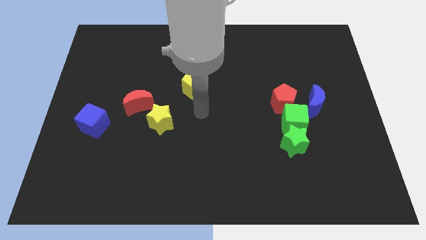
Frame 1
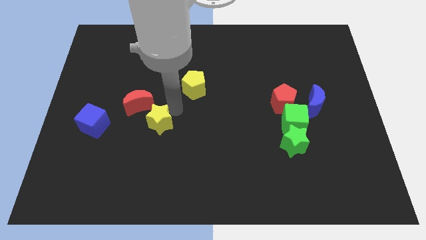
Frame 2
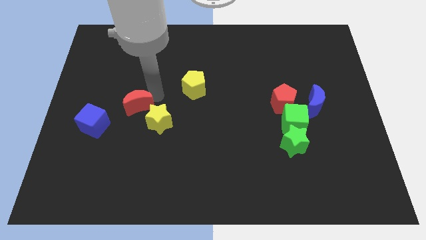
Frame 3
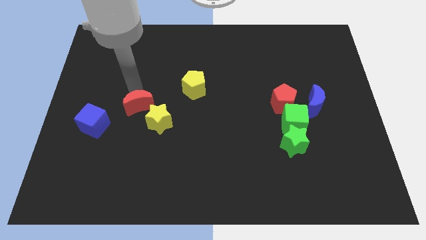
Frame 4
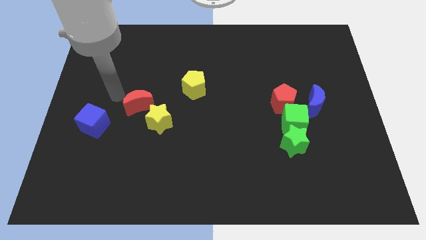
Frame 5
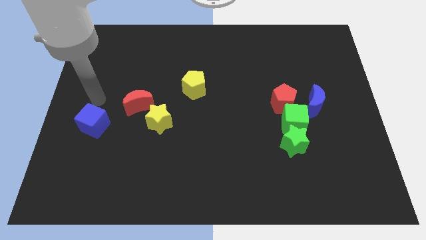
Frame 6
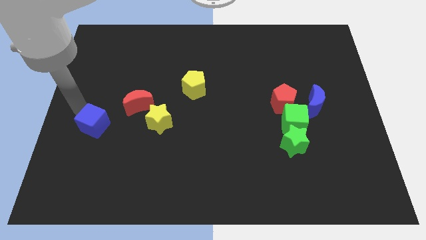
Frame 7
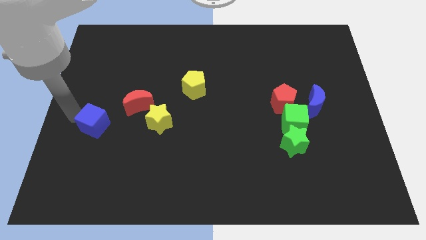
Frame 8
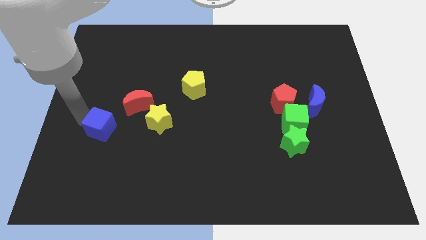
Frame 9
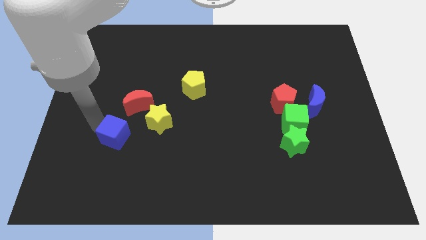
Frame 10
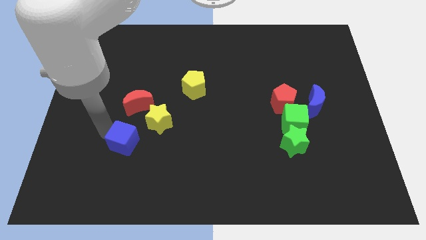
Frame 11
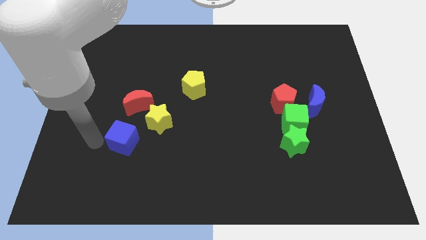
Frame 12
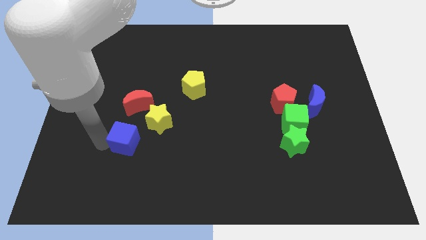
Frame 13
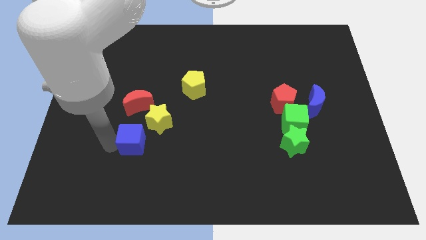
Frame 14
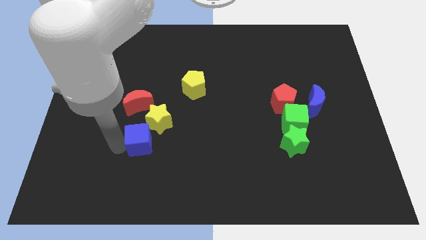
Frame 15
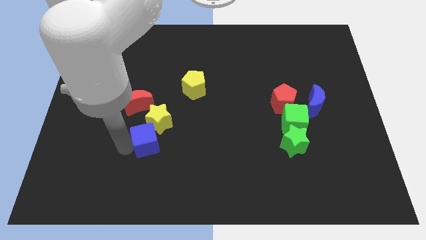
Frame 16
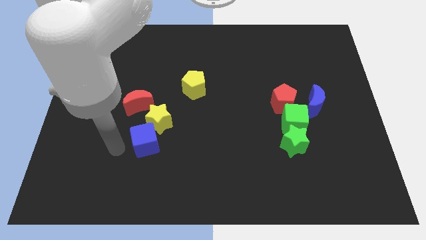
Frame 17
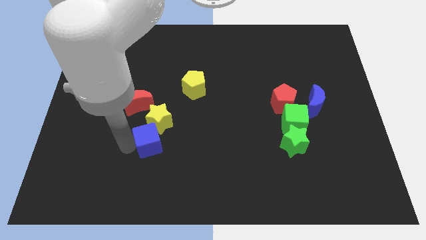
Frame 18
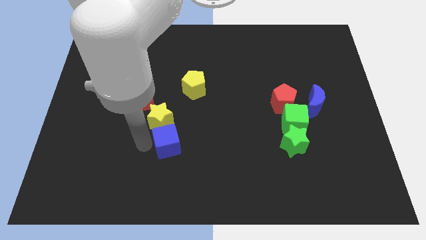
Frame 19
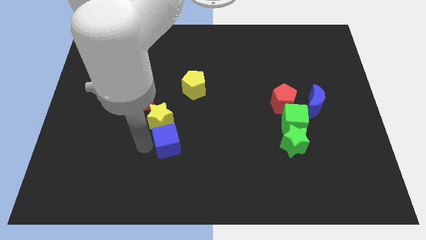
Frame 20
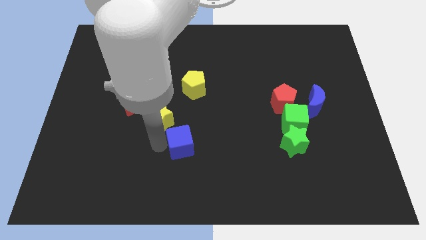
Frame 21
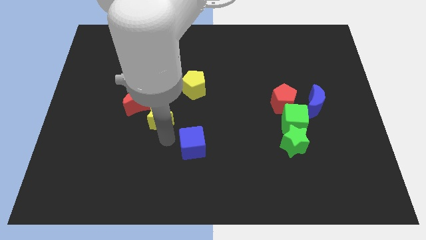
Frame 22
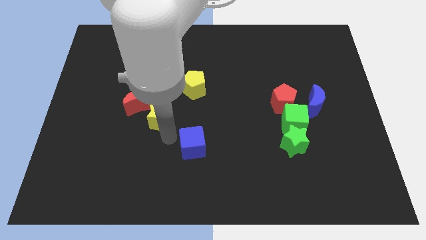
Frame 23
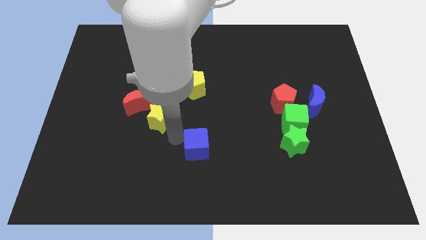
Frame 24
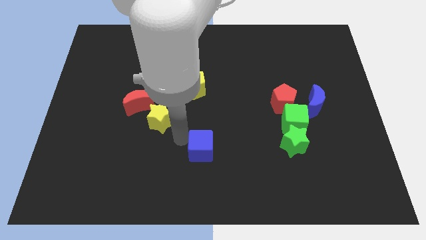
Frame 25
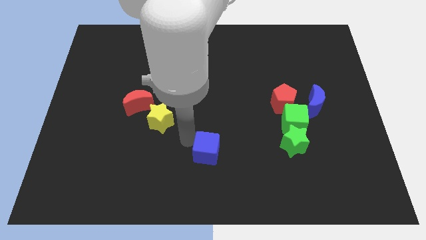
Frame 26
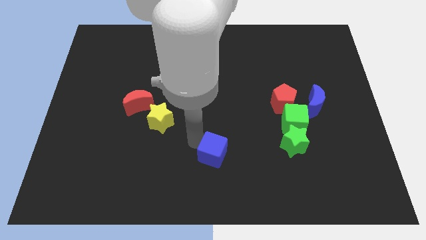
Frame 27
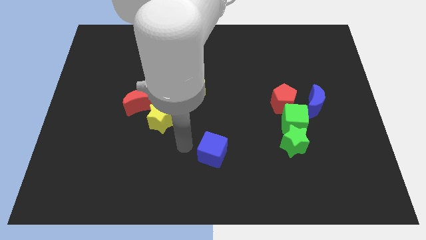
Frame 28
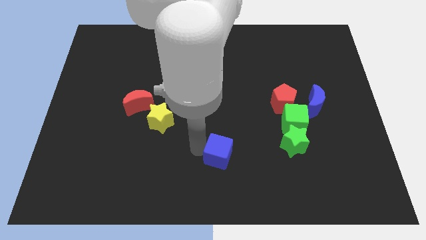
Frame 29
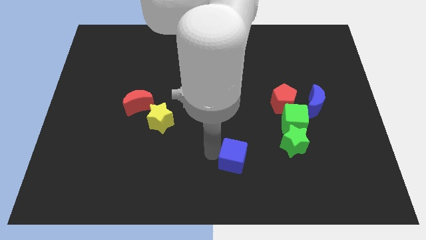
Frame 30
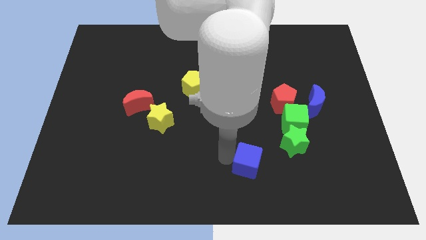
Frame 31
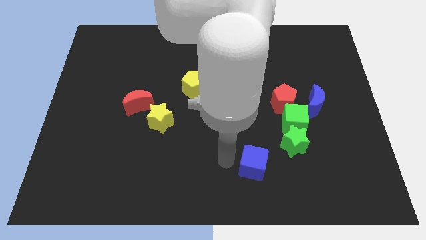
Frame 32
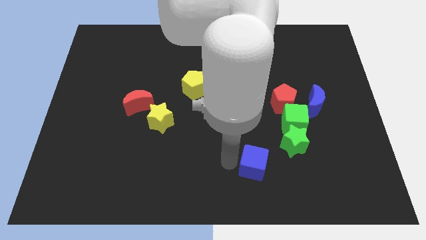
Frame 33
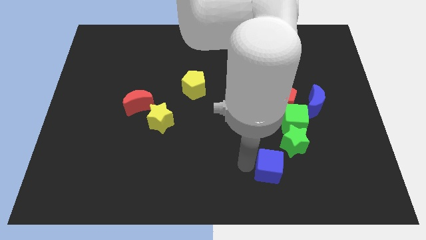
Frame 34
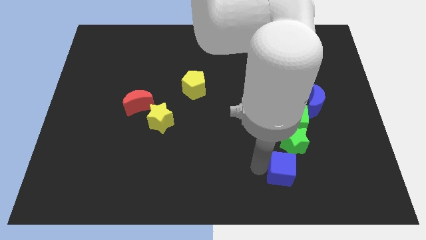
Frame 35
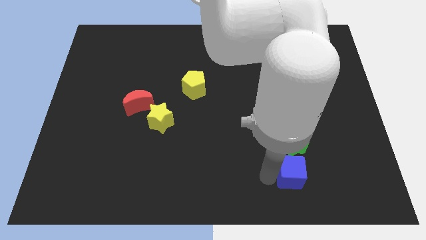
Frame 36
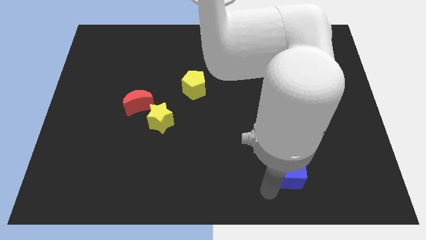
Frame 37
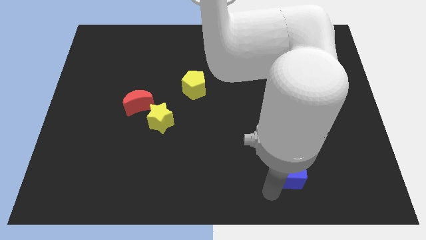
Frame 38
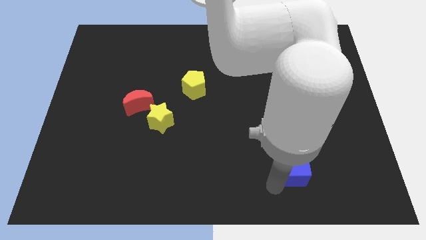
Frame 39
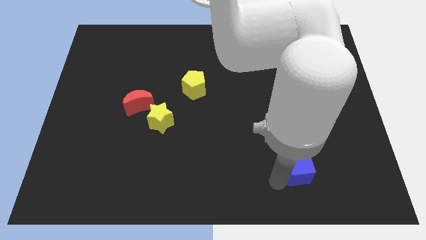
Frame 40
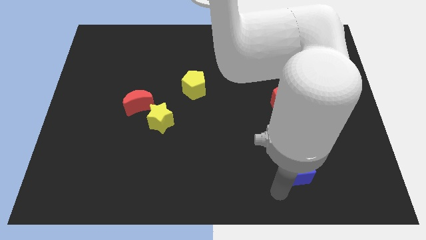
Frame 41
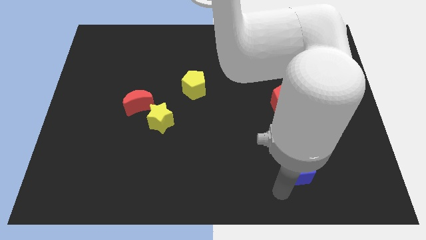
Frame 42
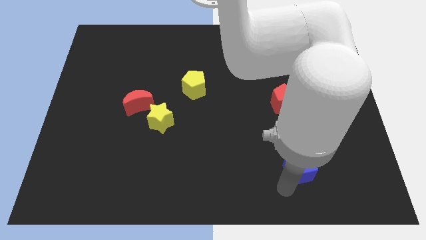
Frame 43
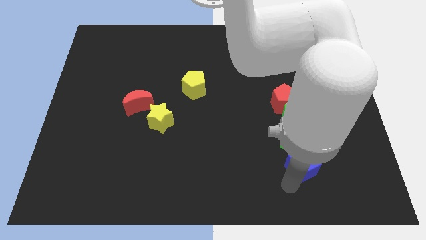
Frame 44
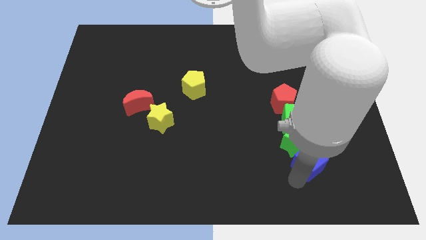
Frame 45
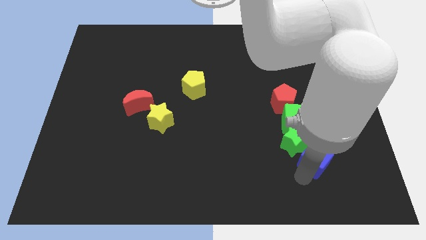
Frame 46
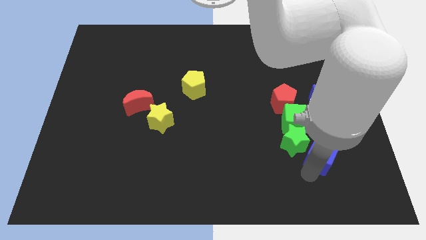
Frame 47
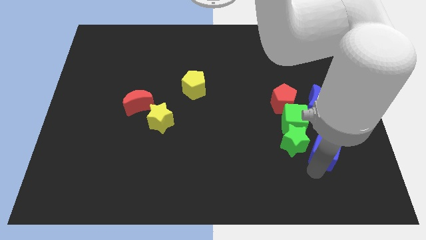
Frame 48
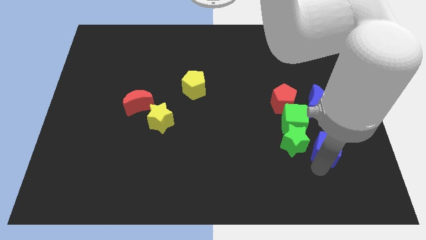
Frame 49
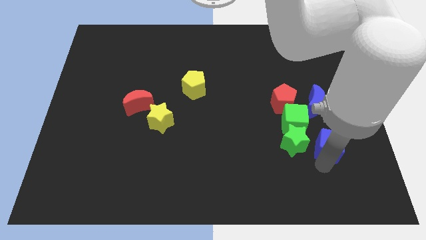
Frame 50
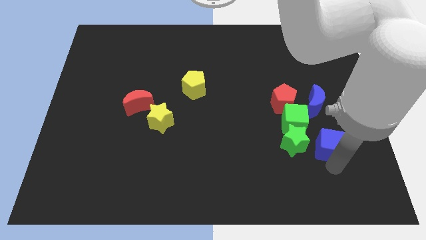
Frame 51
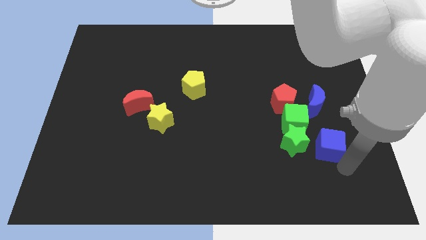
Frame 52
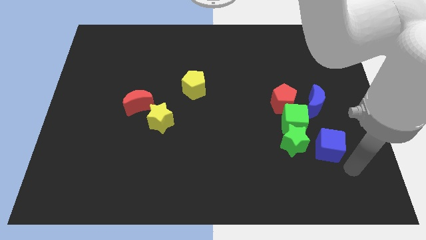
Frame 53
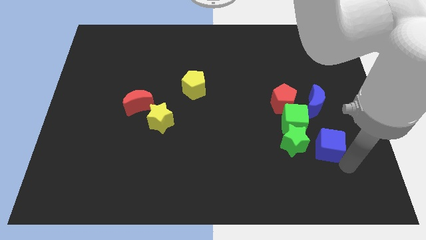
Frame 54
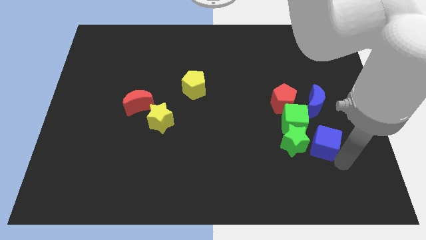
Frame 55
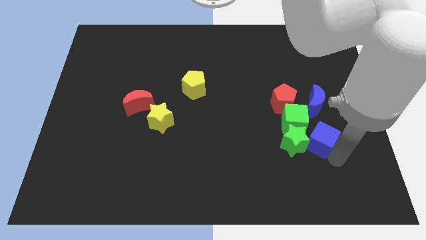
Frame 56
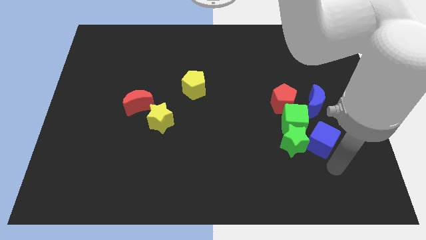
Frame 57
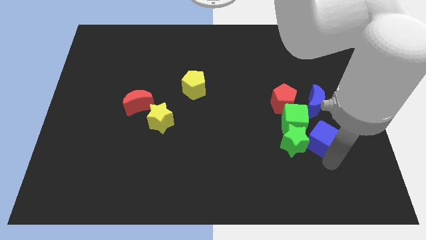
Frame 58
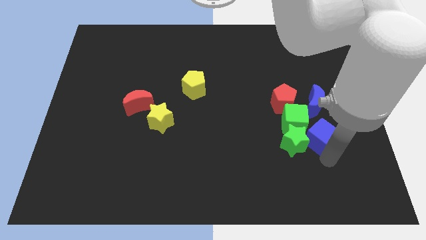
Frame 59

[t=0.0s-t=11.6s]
move the blue cube diagonally down and to the right of the red pentagon

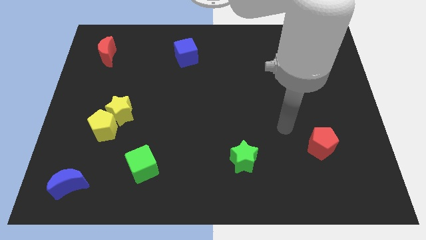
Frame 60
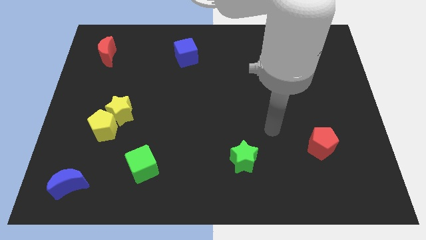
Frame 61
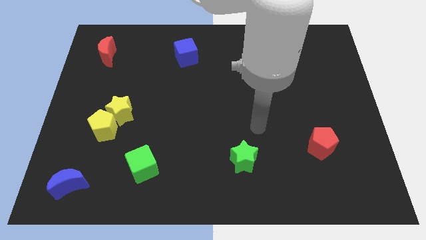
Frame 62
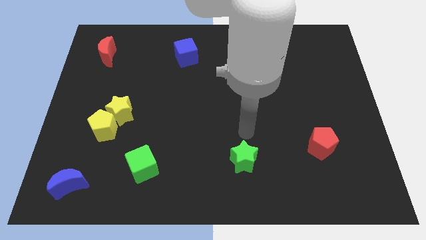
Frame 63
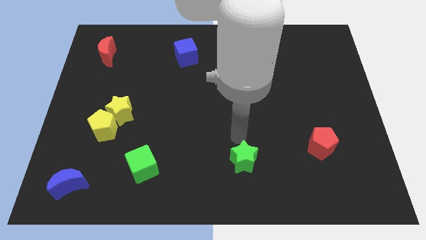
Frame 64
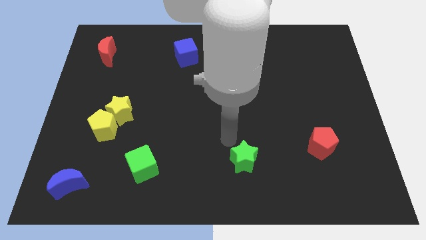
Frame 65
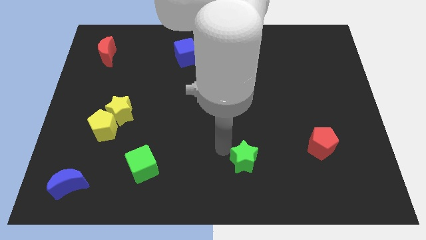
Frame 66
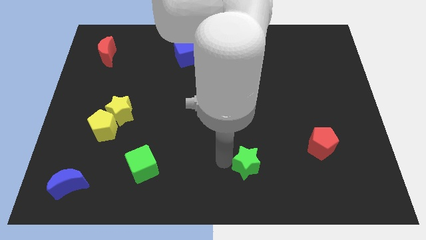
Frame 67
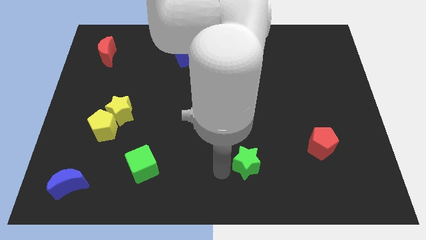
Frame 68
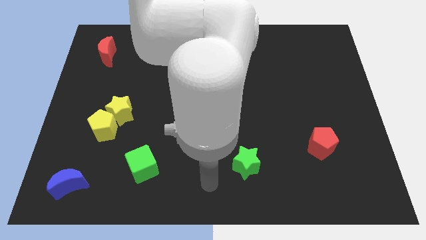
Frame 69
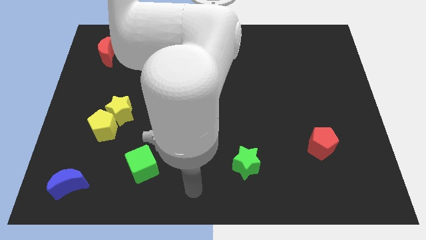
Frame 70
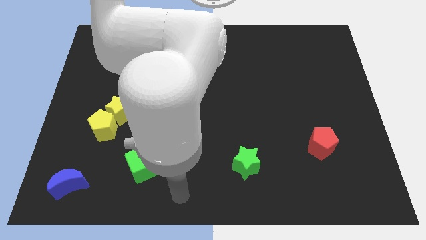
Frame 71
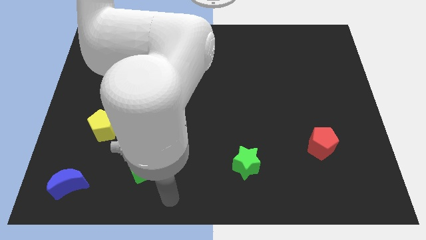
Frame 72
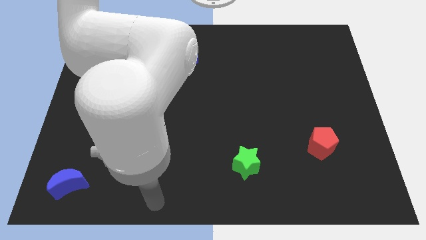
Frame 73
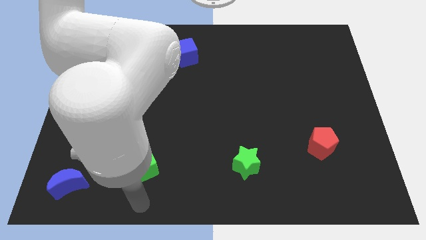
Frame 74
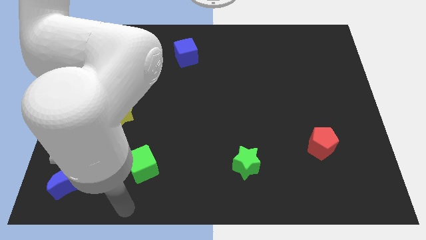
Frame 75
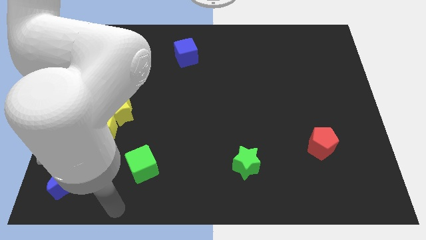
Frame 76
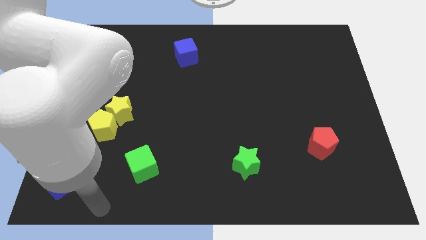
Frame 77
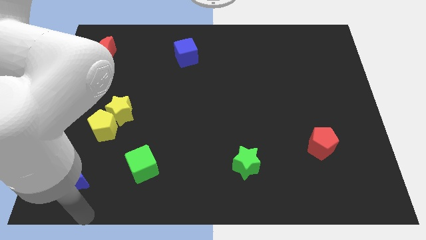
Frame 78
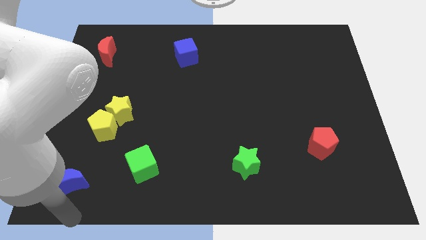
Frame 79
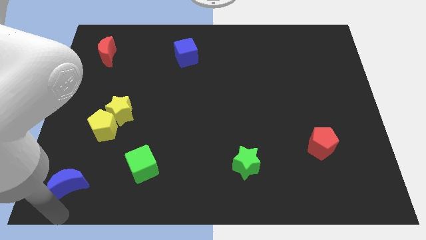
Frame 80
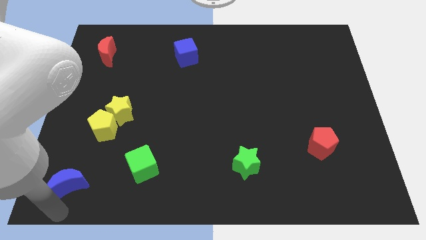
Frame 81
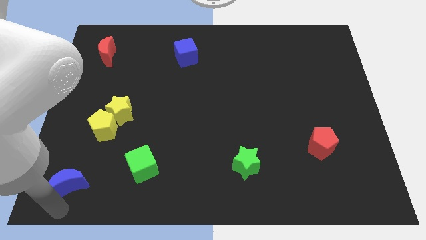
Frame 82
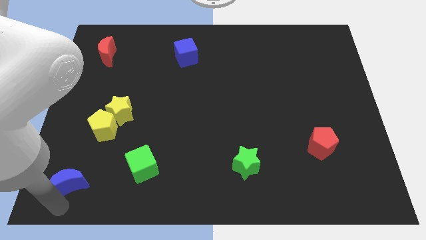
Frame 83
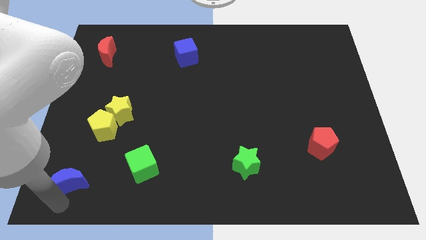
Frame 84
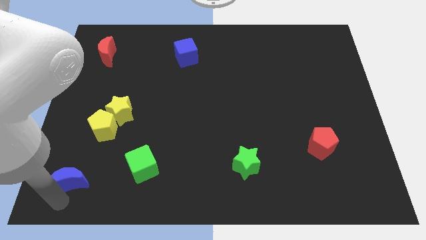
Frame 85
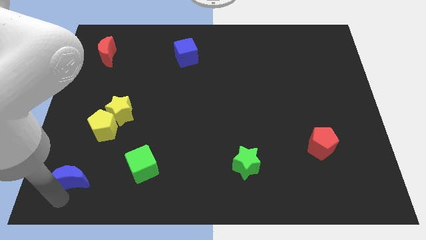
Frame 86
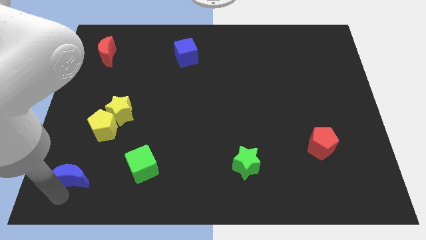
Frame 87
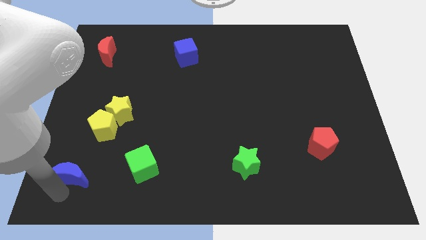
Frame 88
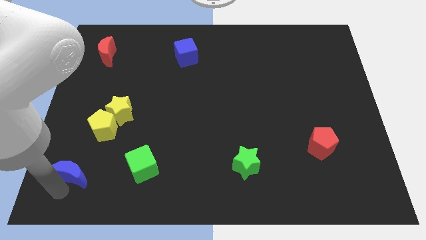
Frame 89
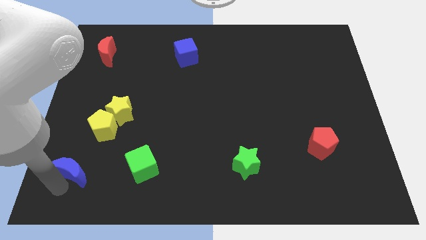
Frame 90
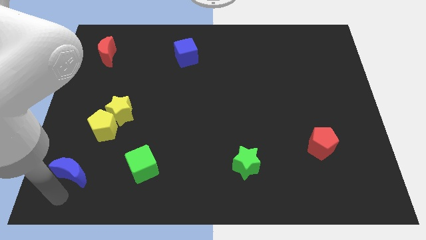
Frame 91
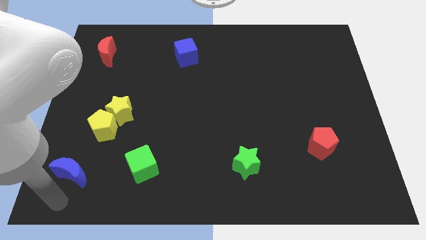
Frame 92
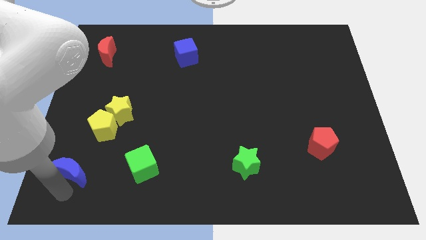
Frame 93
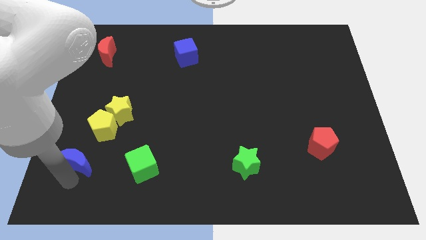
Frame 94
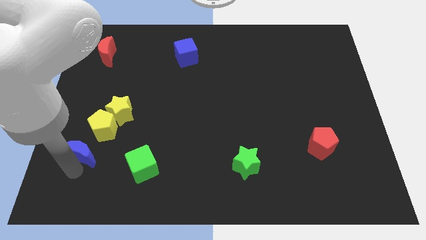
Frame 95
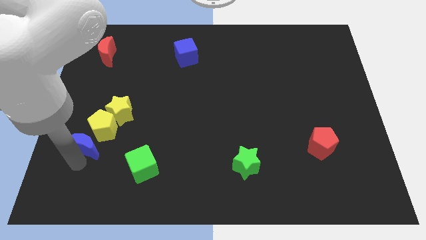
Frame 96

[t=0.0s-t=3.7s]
slide the blue moon to the bottom left side of the yellow star
